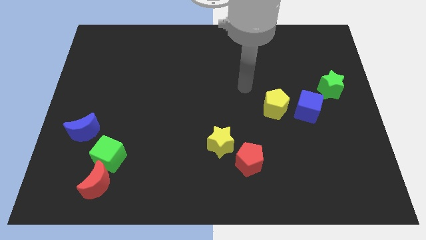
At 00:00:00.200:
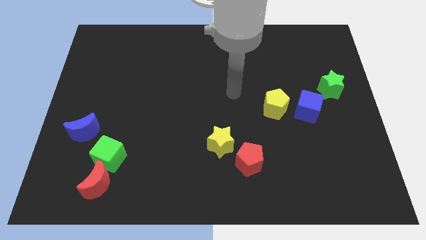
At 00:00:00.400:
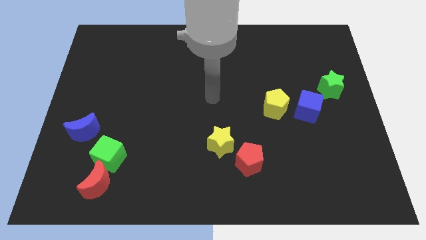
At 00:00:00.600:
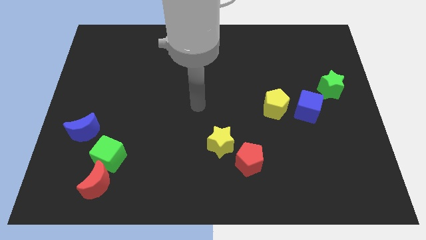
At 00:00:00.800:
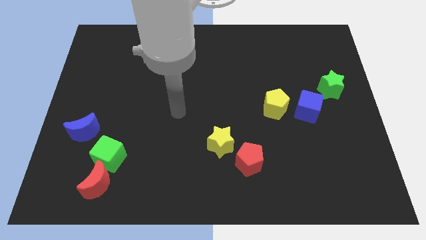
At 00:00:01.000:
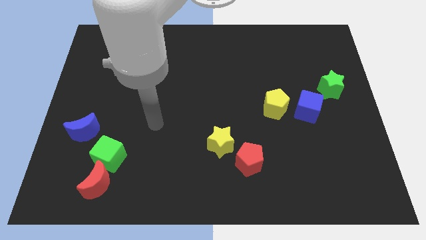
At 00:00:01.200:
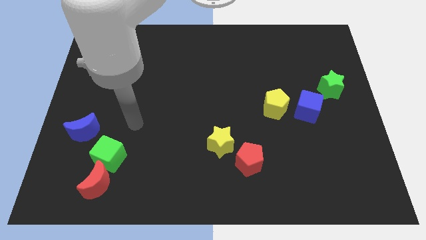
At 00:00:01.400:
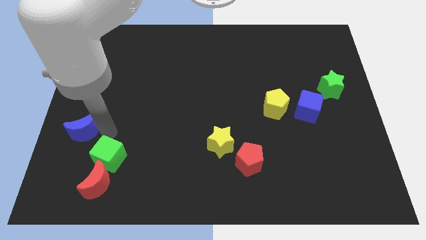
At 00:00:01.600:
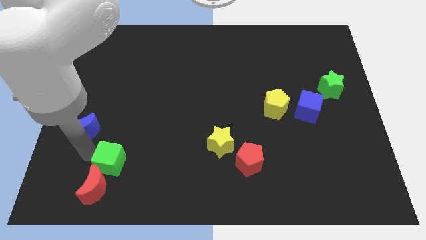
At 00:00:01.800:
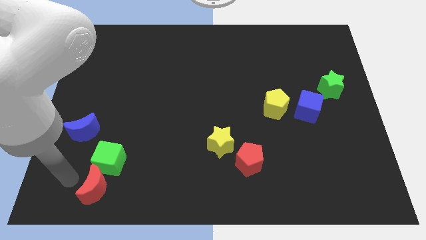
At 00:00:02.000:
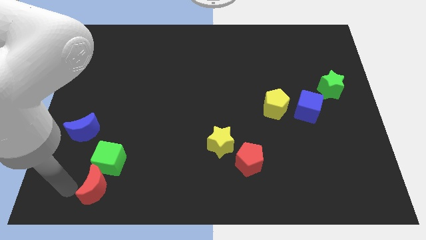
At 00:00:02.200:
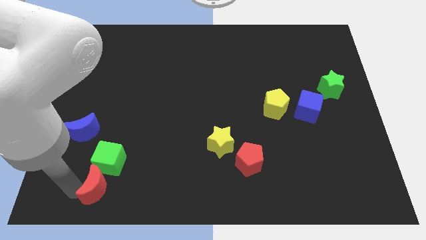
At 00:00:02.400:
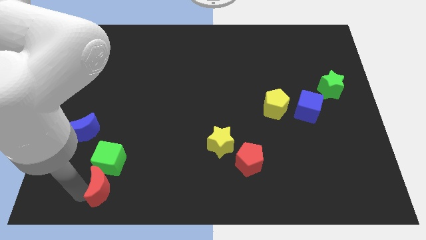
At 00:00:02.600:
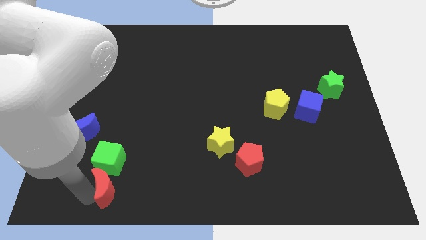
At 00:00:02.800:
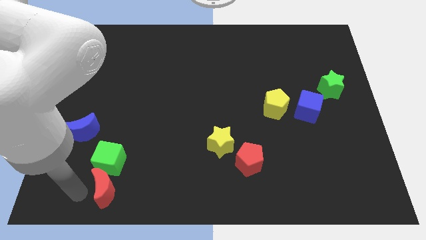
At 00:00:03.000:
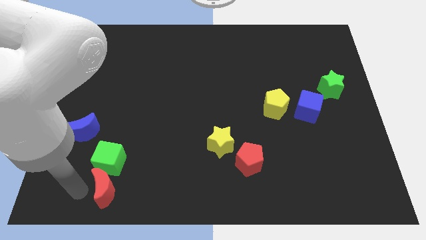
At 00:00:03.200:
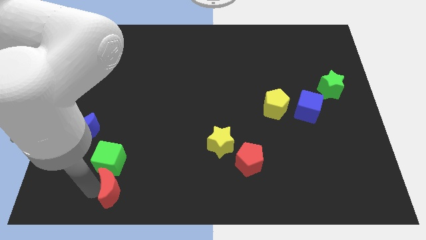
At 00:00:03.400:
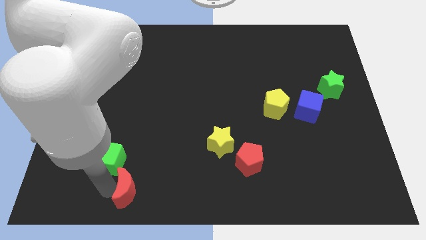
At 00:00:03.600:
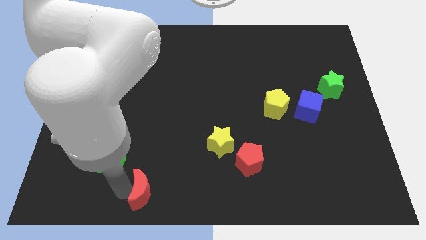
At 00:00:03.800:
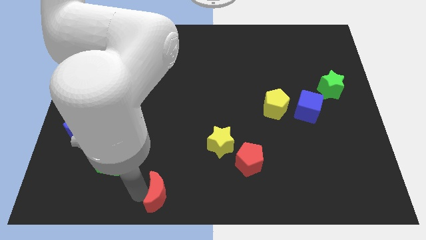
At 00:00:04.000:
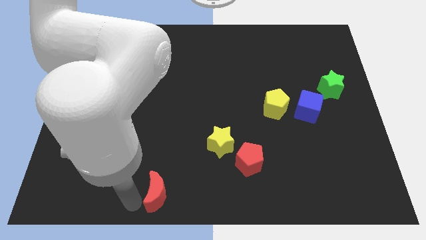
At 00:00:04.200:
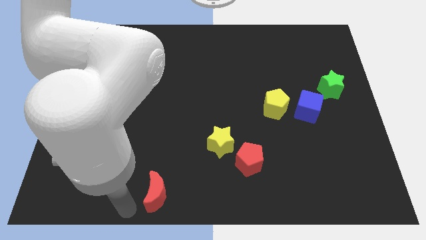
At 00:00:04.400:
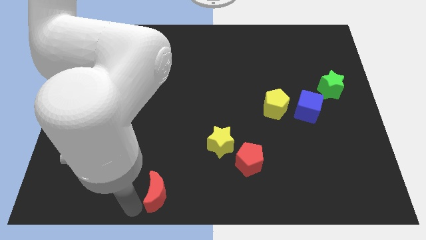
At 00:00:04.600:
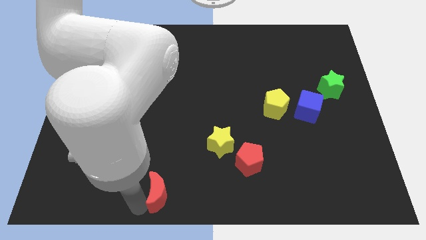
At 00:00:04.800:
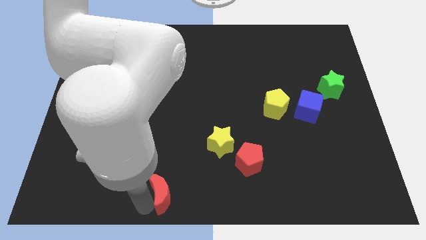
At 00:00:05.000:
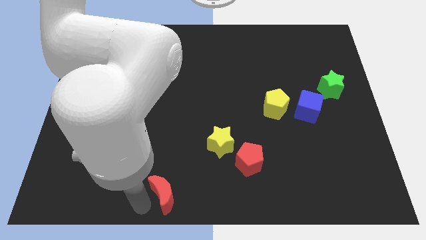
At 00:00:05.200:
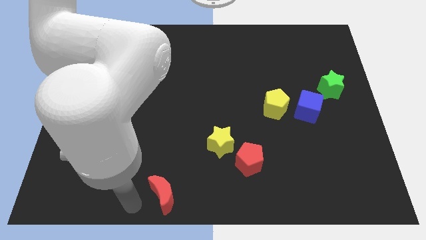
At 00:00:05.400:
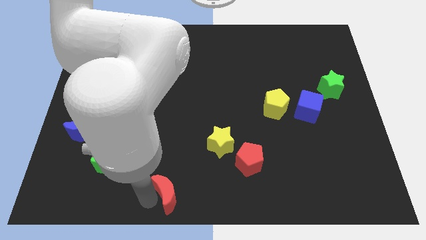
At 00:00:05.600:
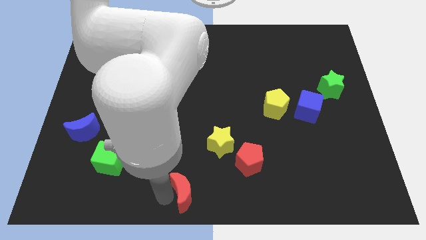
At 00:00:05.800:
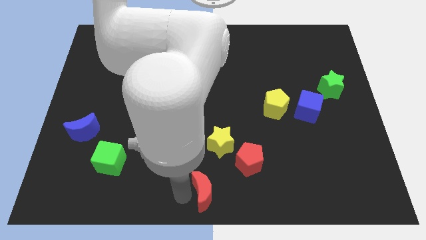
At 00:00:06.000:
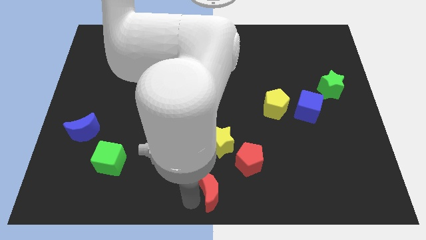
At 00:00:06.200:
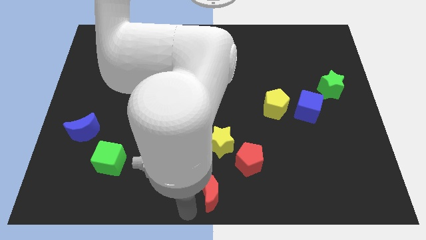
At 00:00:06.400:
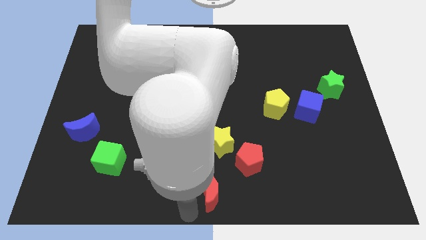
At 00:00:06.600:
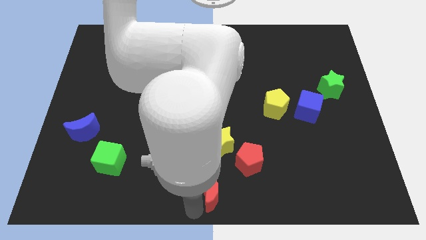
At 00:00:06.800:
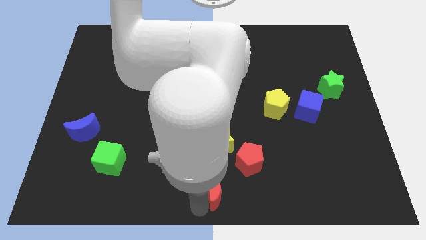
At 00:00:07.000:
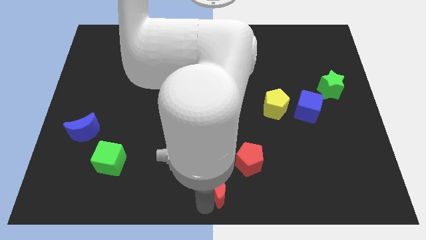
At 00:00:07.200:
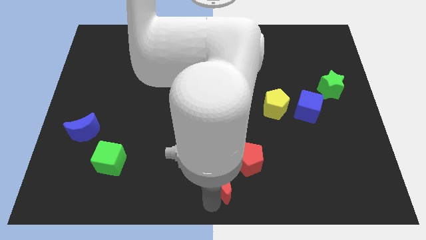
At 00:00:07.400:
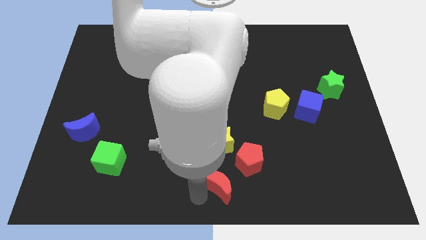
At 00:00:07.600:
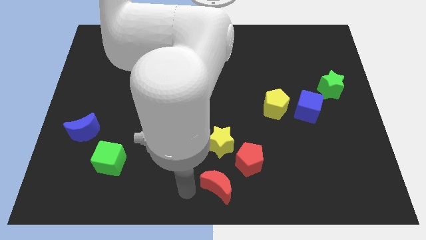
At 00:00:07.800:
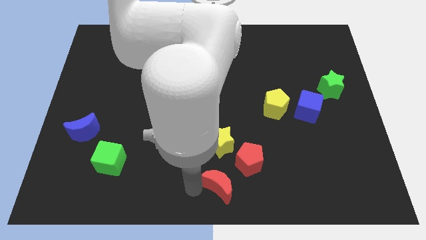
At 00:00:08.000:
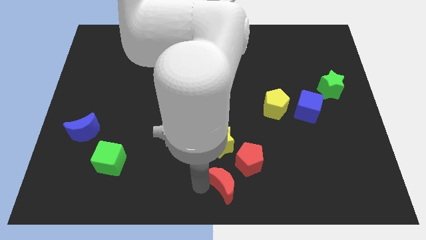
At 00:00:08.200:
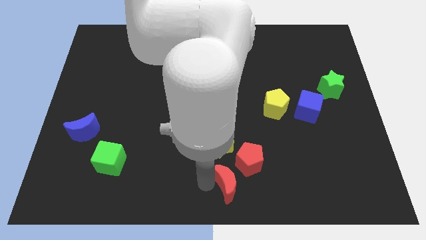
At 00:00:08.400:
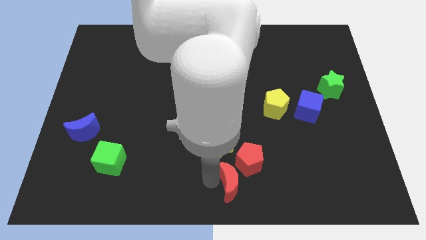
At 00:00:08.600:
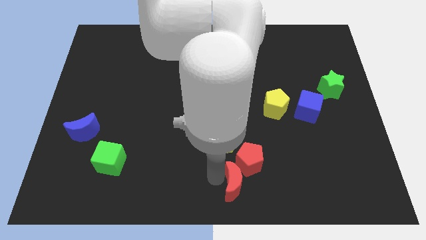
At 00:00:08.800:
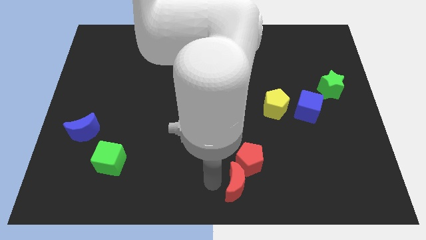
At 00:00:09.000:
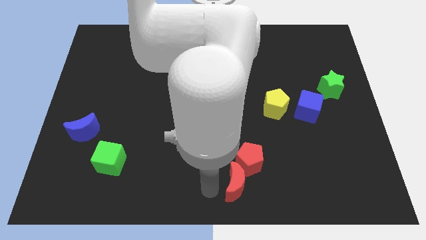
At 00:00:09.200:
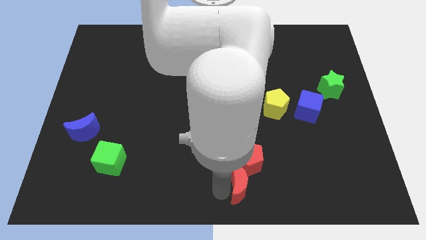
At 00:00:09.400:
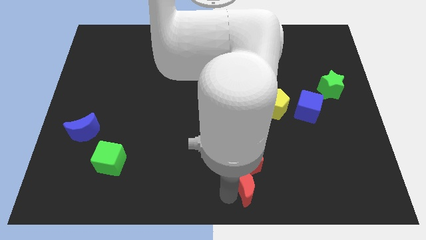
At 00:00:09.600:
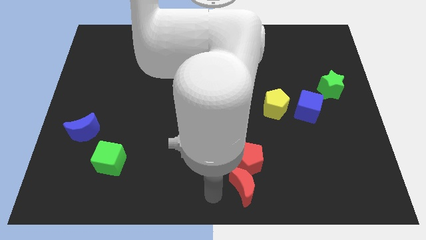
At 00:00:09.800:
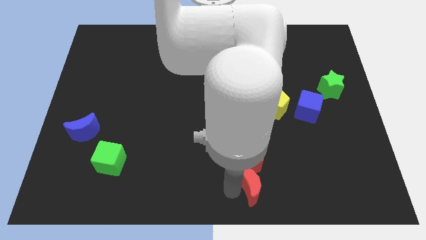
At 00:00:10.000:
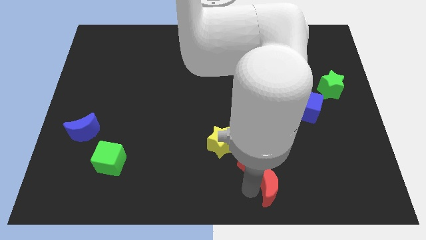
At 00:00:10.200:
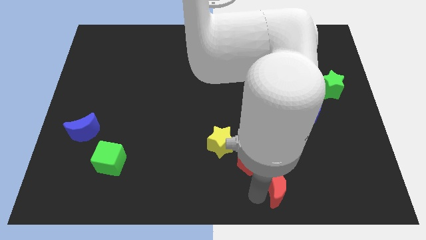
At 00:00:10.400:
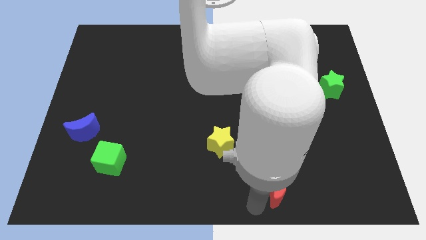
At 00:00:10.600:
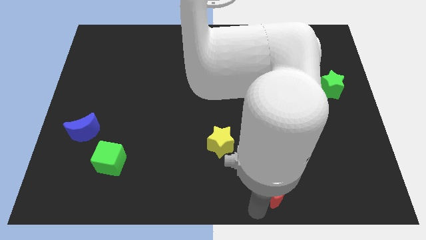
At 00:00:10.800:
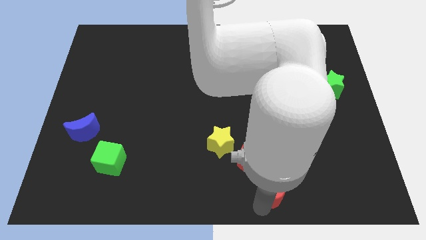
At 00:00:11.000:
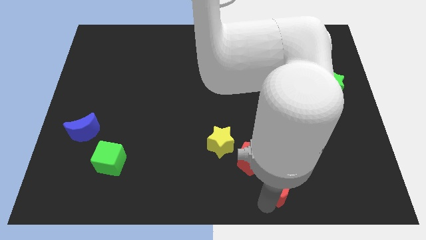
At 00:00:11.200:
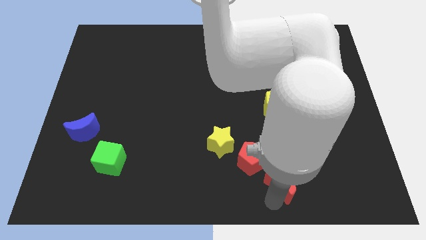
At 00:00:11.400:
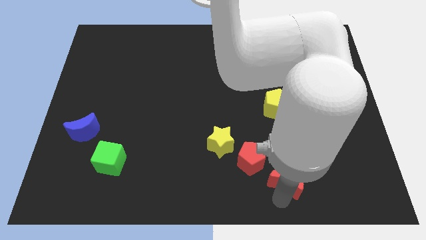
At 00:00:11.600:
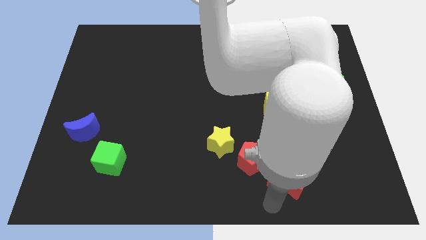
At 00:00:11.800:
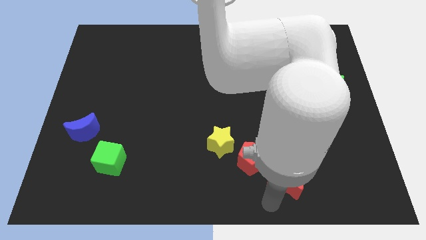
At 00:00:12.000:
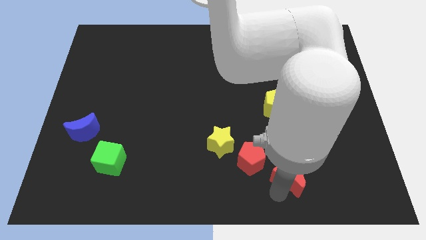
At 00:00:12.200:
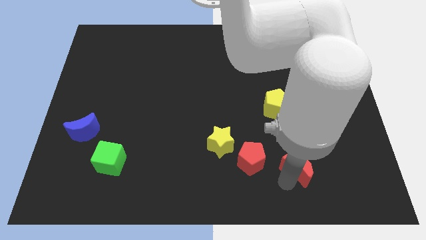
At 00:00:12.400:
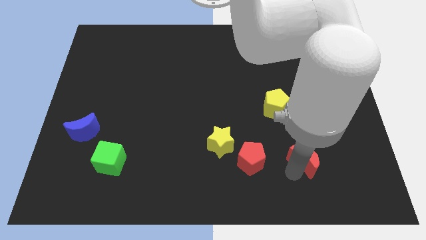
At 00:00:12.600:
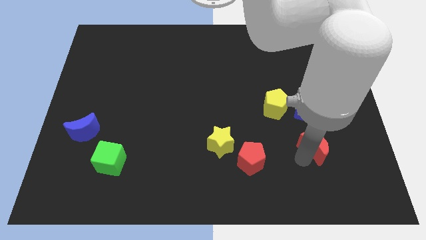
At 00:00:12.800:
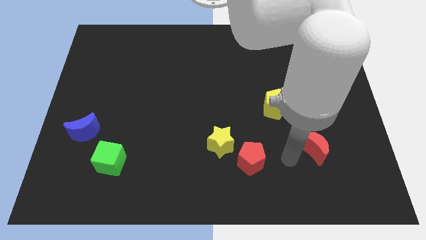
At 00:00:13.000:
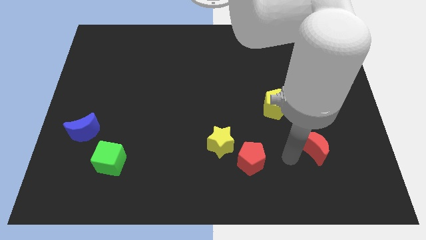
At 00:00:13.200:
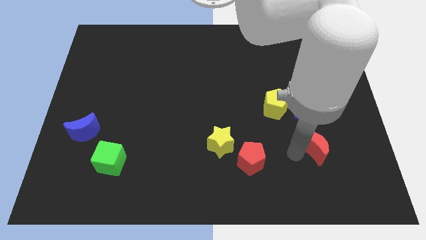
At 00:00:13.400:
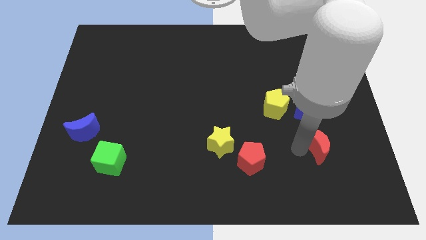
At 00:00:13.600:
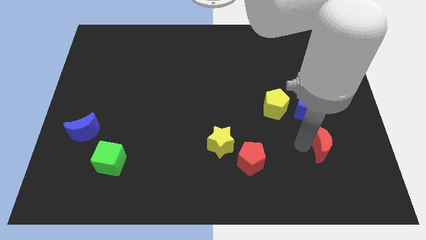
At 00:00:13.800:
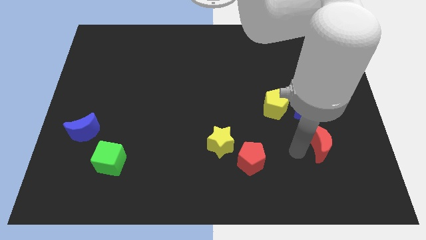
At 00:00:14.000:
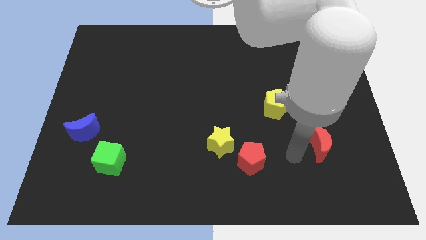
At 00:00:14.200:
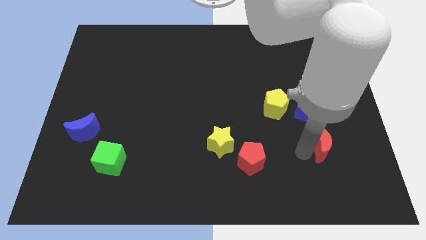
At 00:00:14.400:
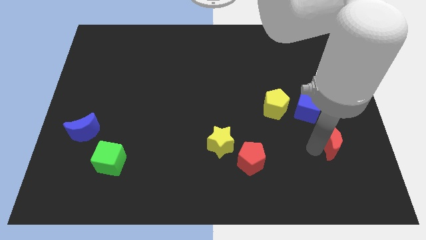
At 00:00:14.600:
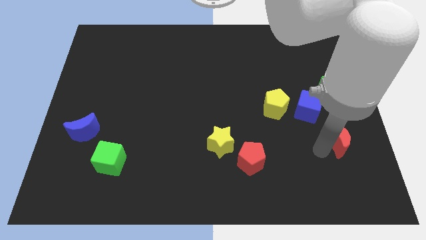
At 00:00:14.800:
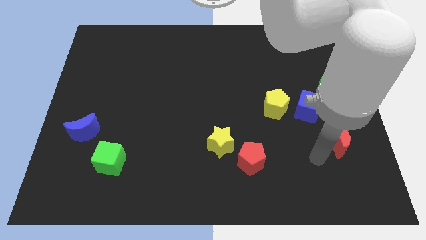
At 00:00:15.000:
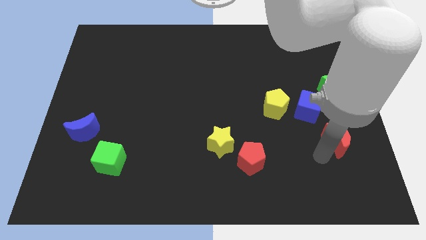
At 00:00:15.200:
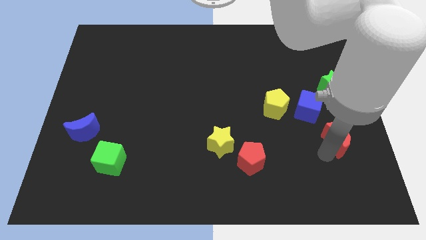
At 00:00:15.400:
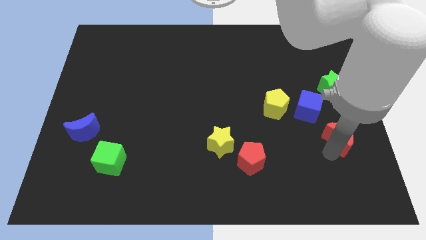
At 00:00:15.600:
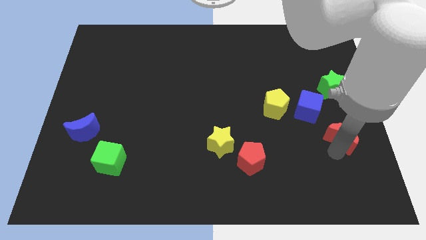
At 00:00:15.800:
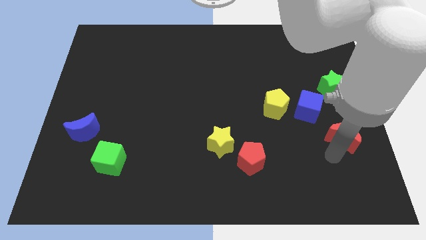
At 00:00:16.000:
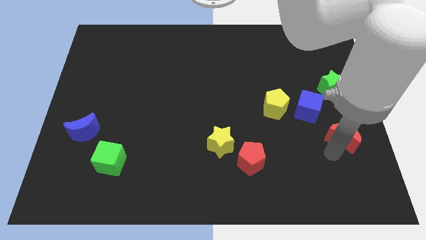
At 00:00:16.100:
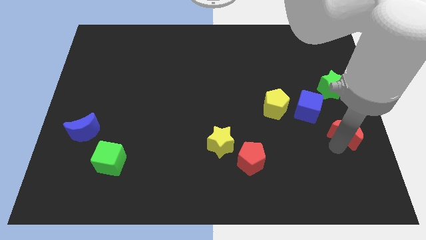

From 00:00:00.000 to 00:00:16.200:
push the red moon to the right side
